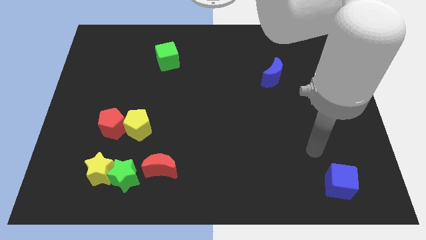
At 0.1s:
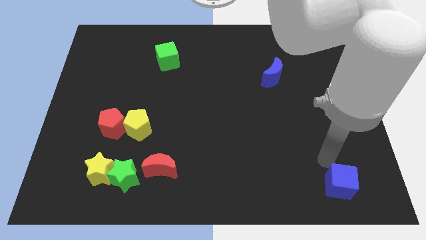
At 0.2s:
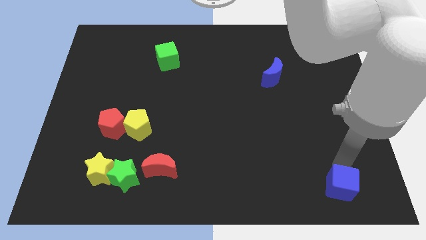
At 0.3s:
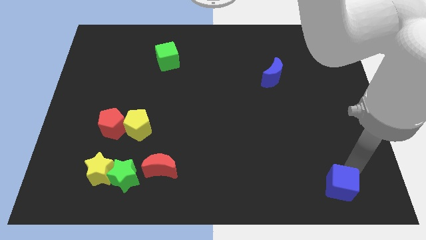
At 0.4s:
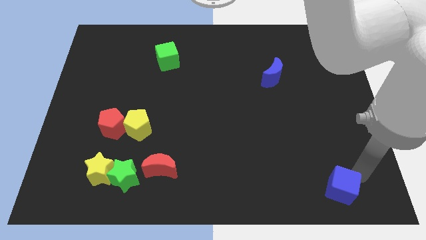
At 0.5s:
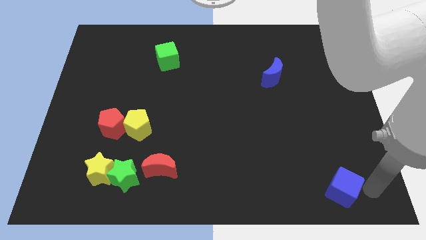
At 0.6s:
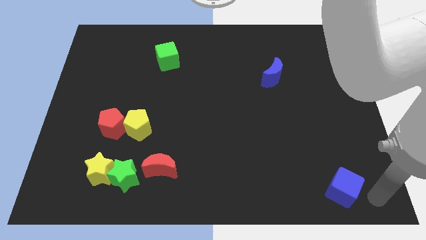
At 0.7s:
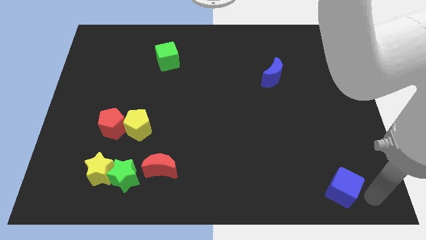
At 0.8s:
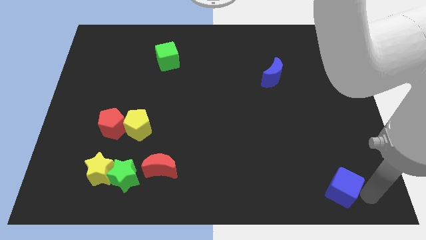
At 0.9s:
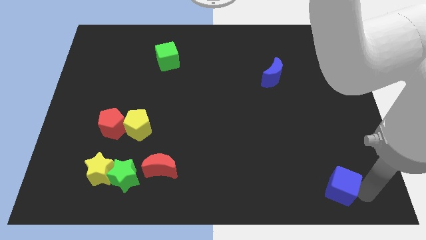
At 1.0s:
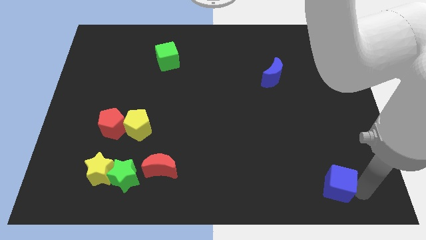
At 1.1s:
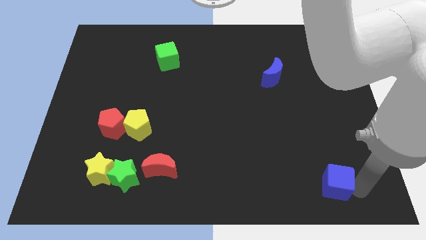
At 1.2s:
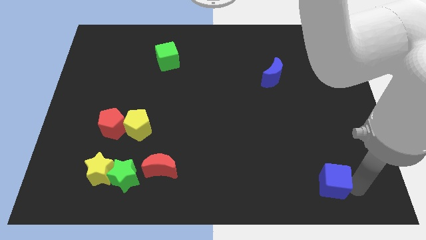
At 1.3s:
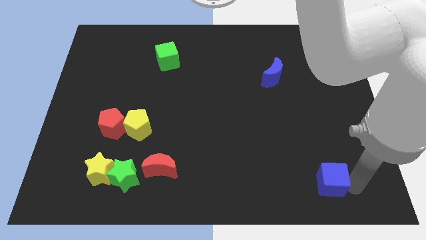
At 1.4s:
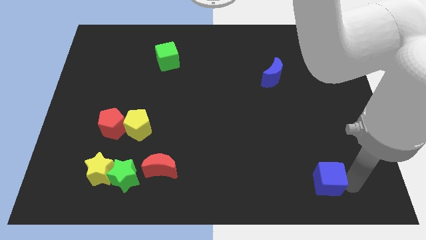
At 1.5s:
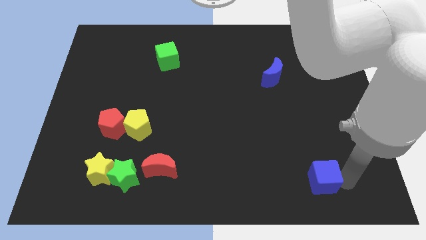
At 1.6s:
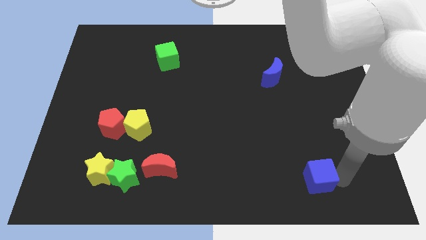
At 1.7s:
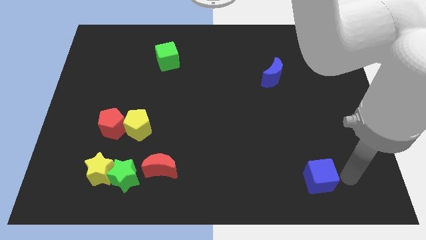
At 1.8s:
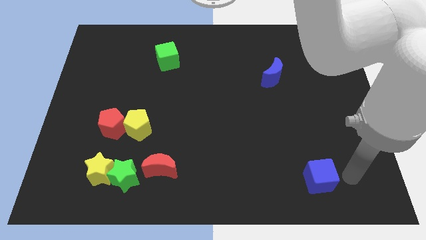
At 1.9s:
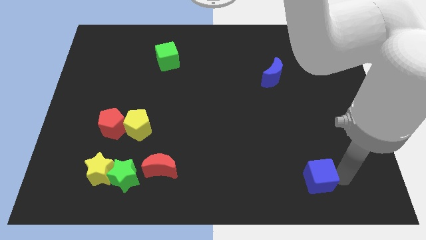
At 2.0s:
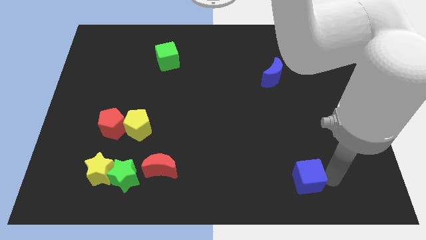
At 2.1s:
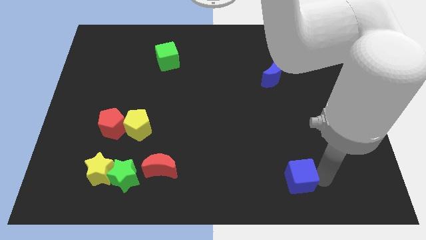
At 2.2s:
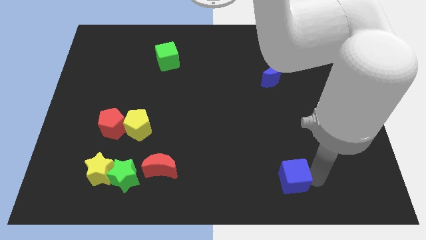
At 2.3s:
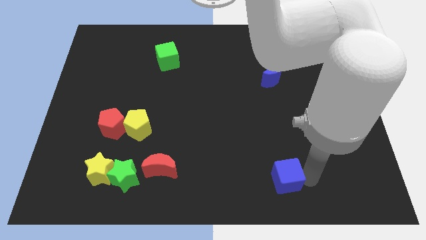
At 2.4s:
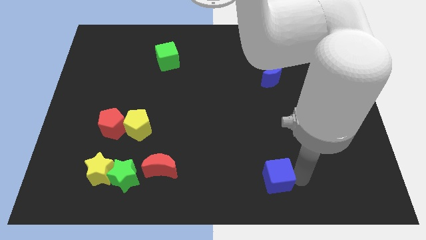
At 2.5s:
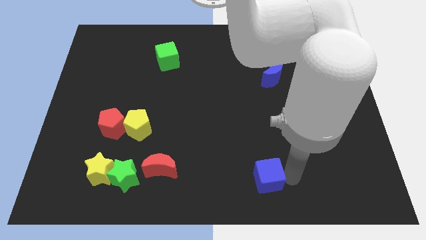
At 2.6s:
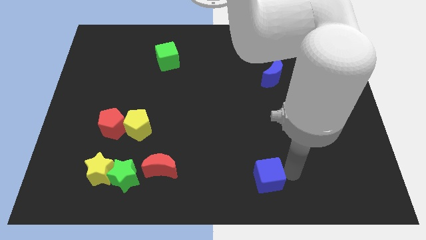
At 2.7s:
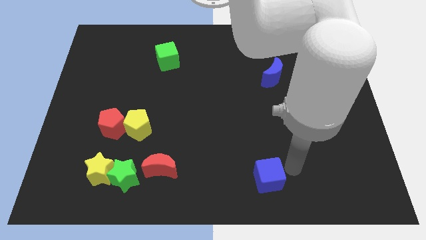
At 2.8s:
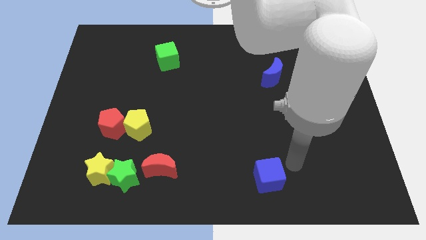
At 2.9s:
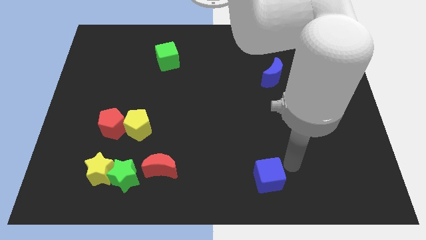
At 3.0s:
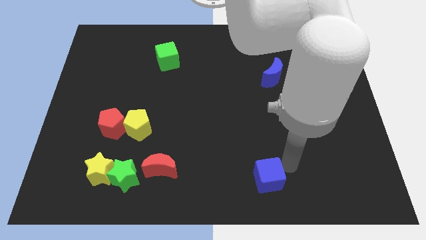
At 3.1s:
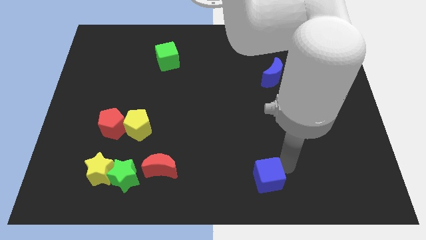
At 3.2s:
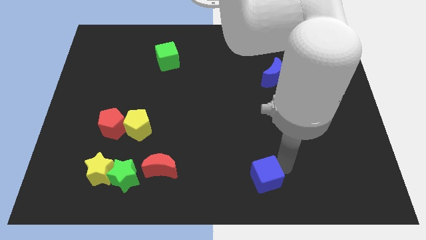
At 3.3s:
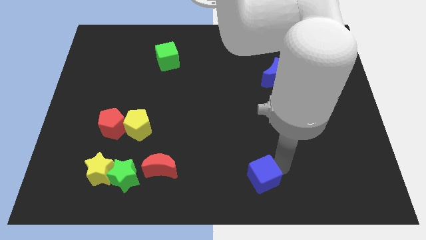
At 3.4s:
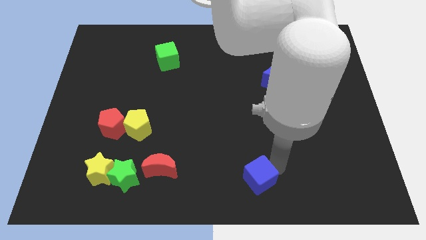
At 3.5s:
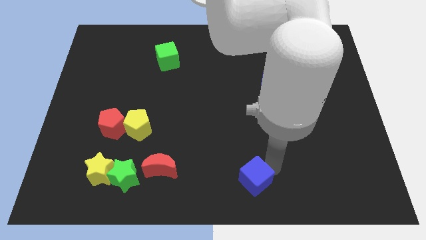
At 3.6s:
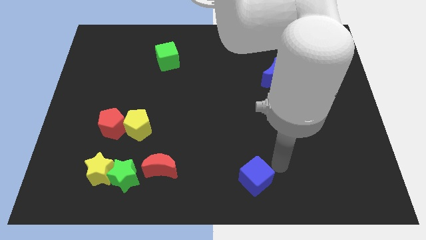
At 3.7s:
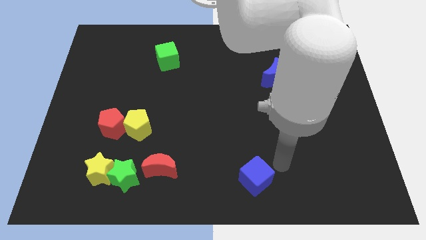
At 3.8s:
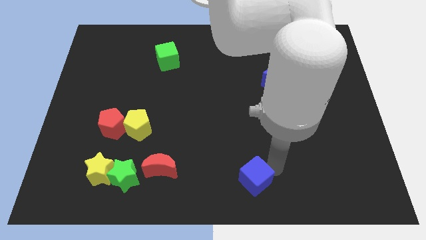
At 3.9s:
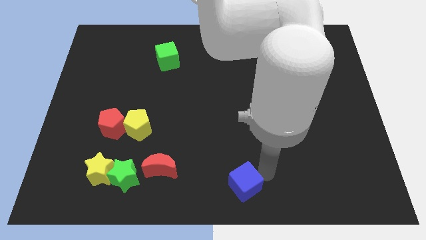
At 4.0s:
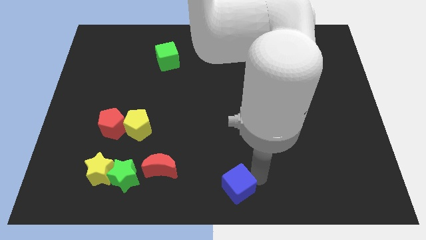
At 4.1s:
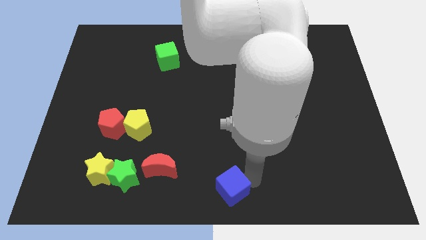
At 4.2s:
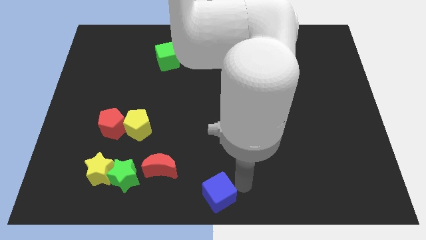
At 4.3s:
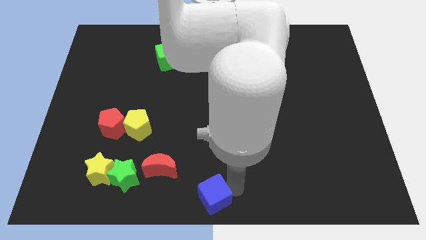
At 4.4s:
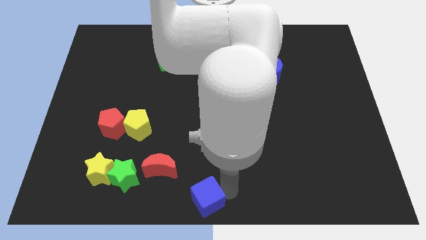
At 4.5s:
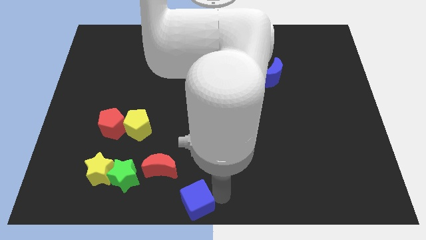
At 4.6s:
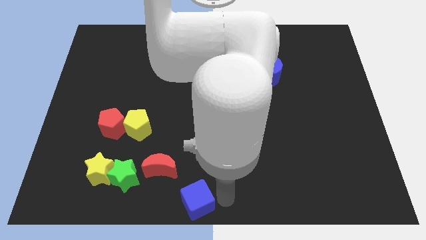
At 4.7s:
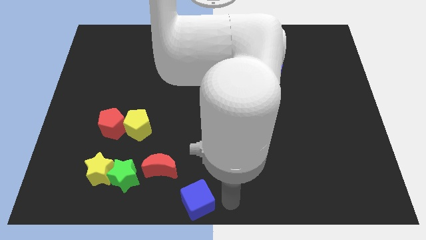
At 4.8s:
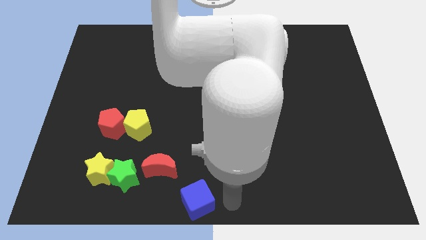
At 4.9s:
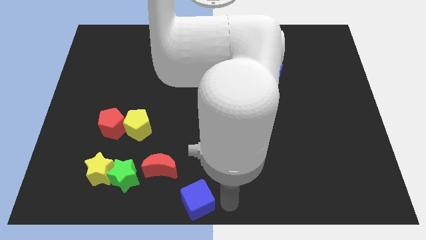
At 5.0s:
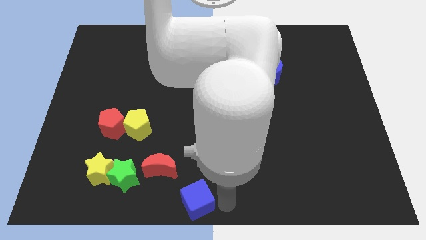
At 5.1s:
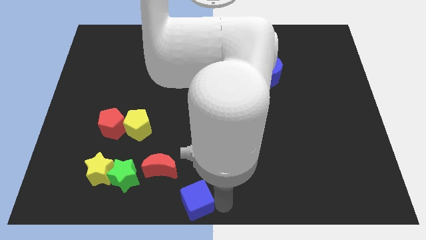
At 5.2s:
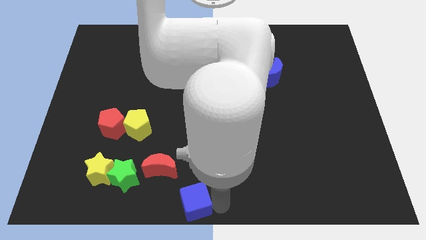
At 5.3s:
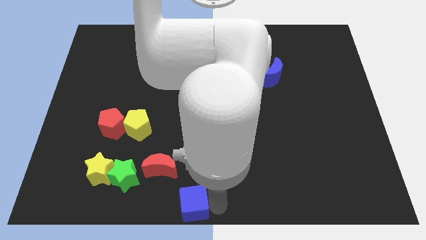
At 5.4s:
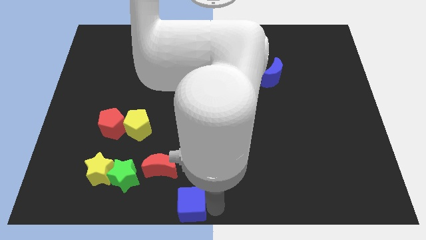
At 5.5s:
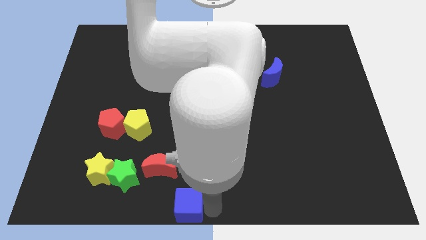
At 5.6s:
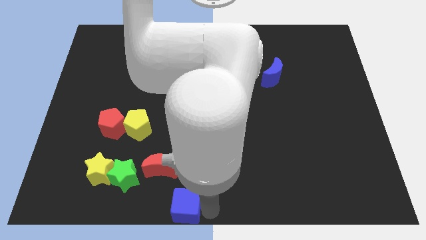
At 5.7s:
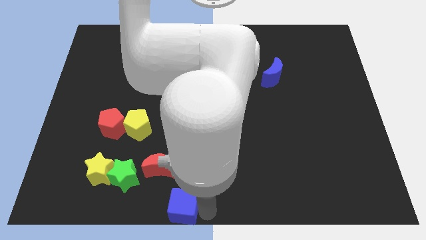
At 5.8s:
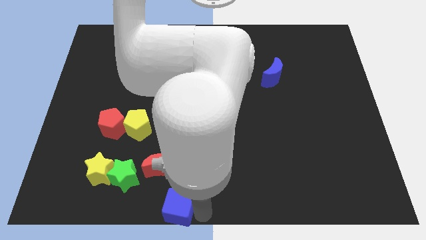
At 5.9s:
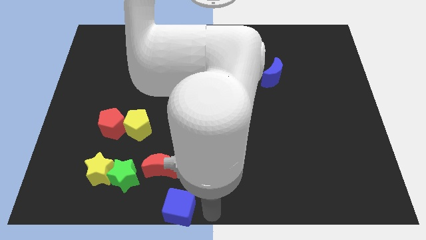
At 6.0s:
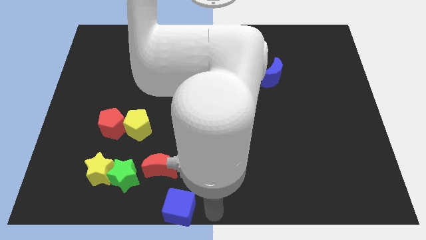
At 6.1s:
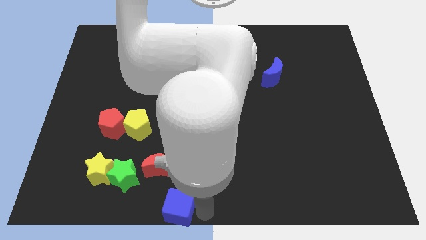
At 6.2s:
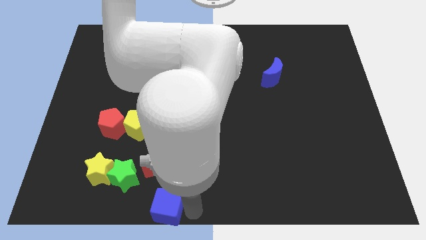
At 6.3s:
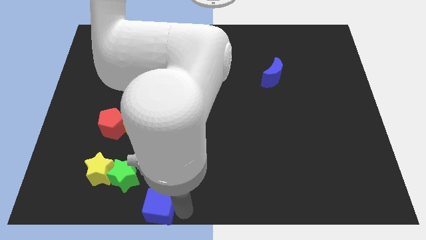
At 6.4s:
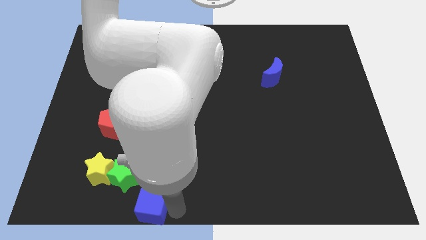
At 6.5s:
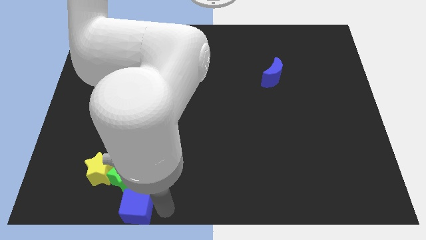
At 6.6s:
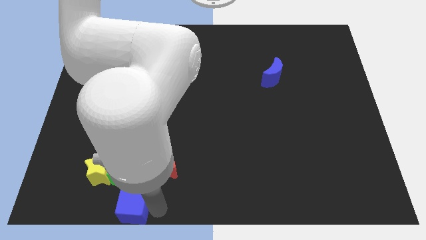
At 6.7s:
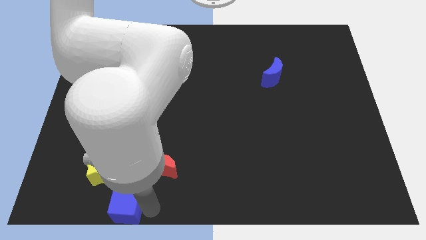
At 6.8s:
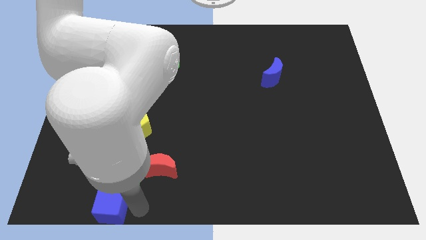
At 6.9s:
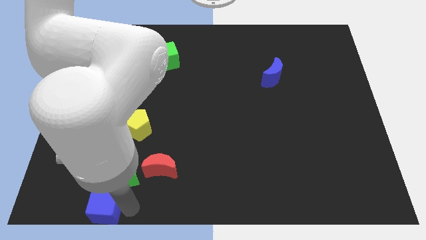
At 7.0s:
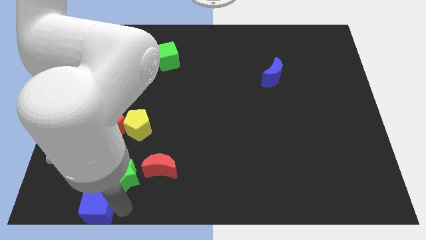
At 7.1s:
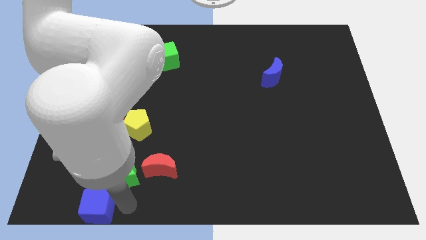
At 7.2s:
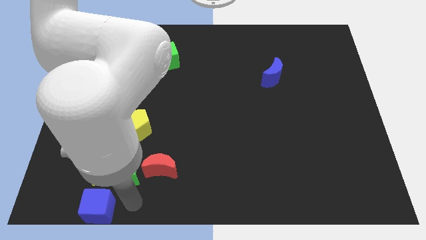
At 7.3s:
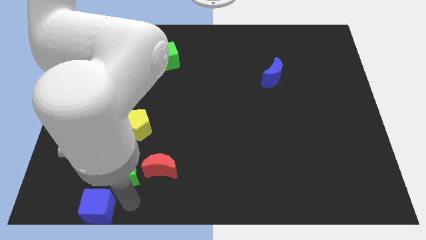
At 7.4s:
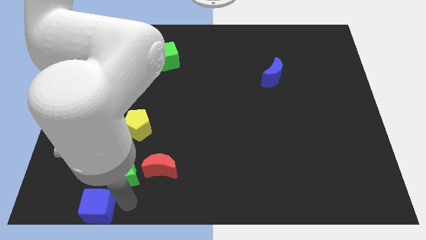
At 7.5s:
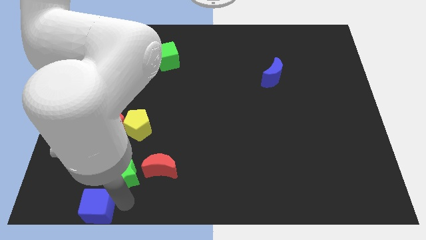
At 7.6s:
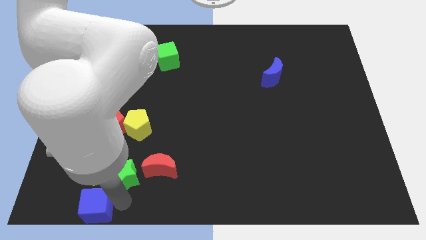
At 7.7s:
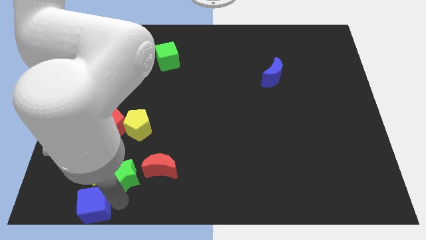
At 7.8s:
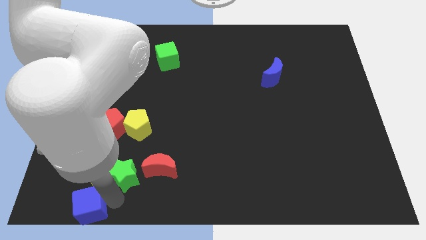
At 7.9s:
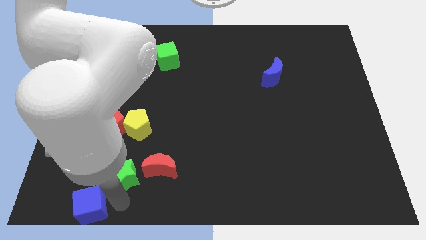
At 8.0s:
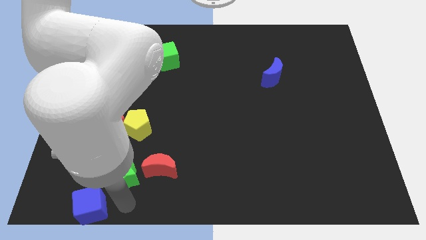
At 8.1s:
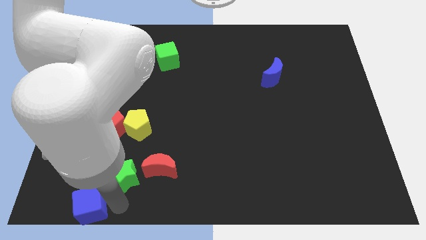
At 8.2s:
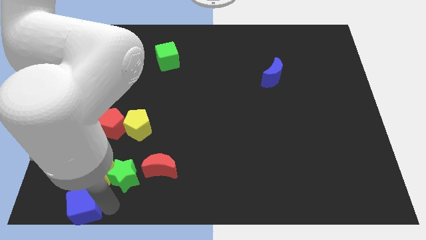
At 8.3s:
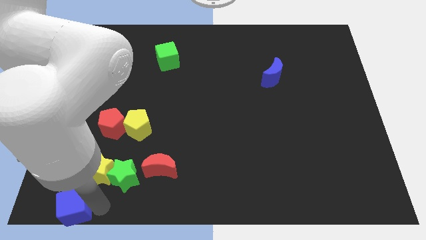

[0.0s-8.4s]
move the blue cube to the bottom left
